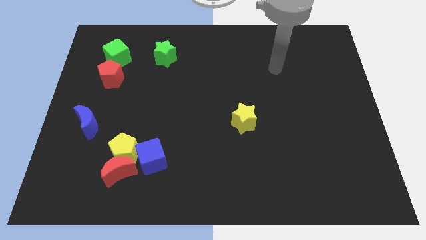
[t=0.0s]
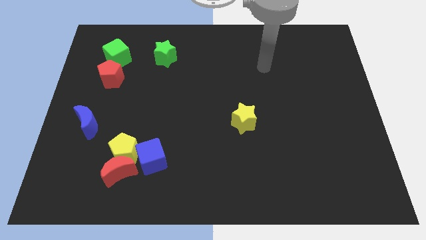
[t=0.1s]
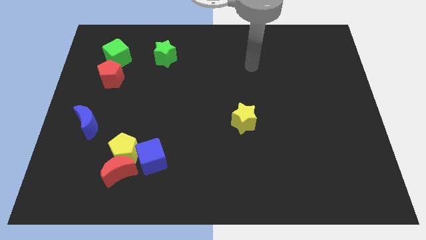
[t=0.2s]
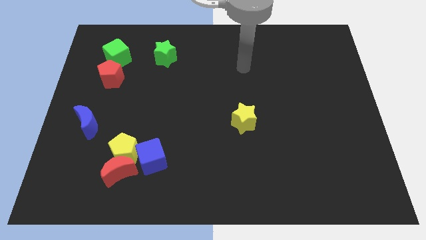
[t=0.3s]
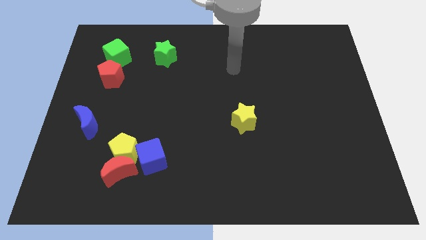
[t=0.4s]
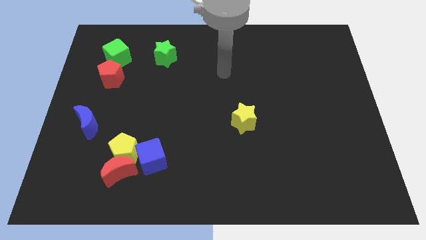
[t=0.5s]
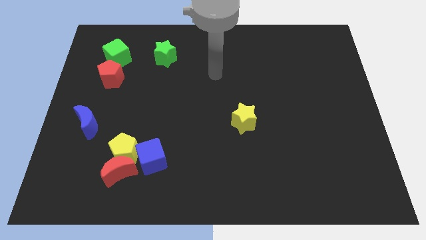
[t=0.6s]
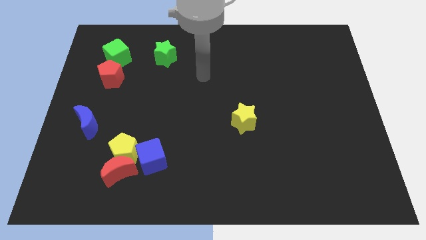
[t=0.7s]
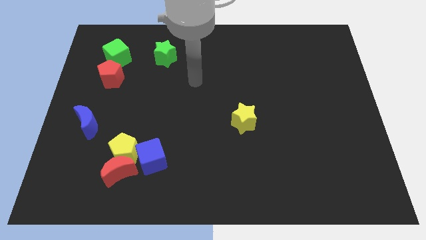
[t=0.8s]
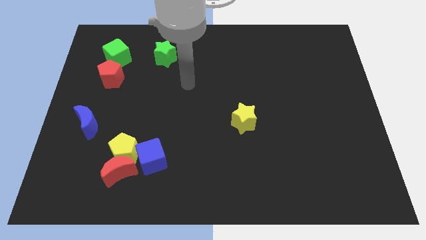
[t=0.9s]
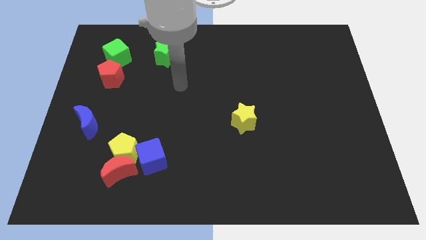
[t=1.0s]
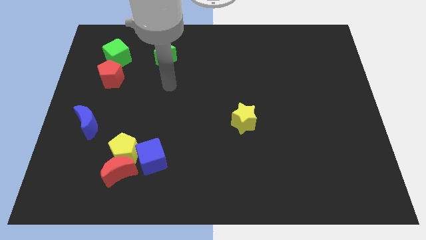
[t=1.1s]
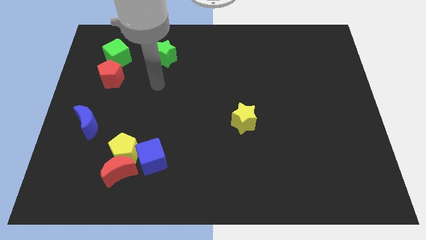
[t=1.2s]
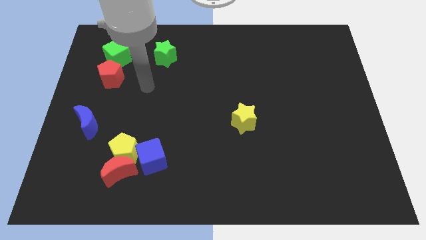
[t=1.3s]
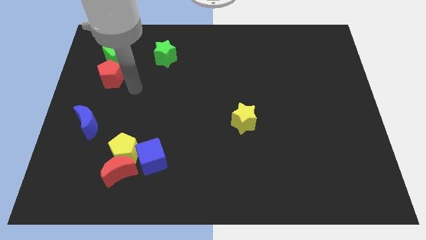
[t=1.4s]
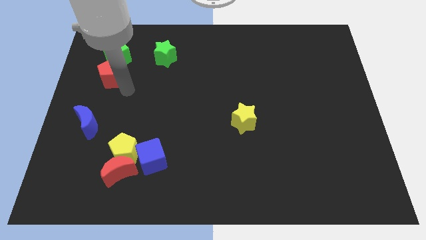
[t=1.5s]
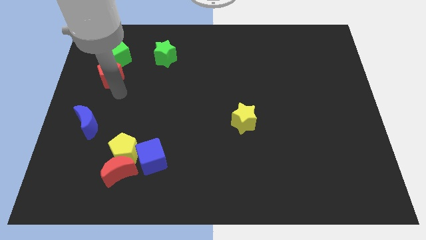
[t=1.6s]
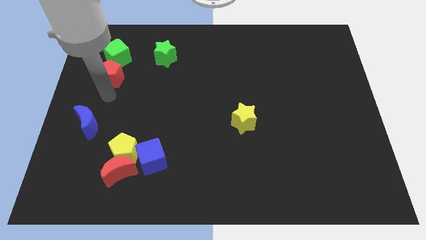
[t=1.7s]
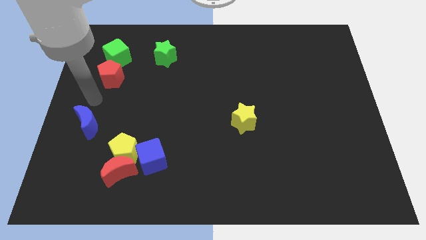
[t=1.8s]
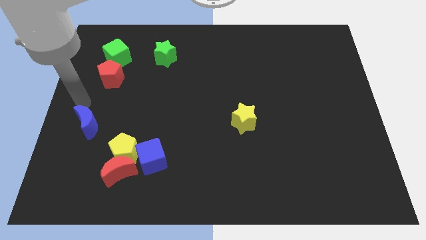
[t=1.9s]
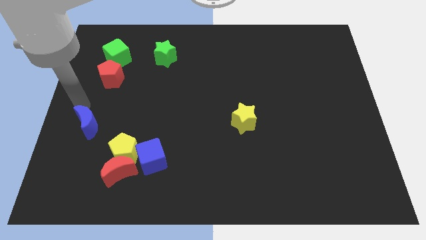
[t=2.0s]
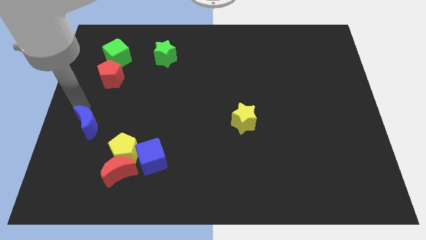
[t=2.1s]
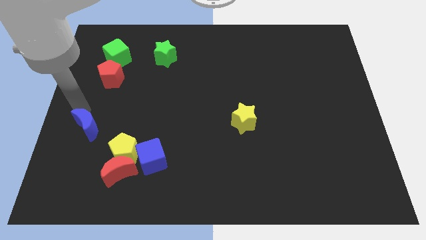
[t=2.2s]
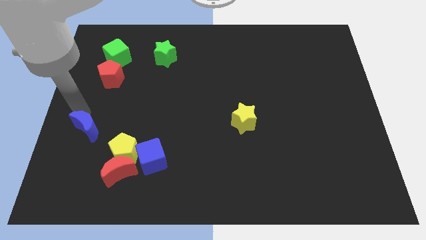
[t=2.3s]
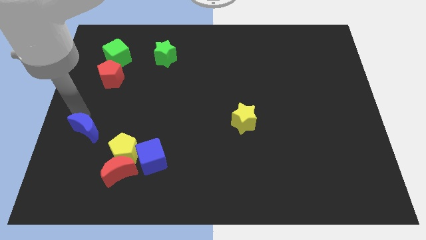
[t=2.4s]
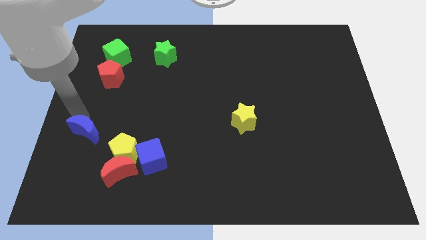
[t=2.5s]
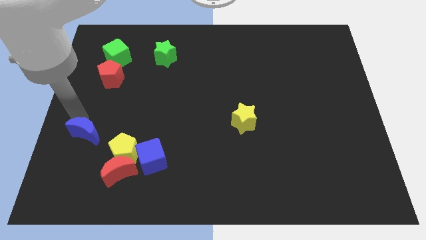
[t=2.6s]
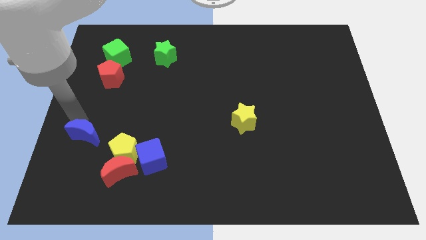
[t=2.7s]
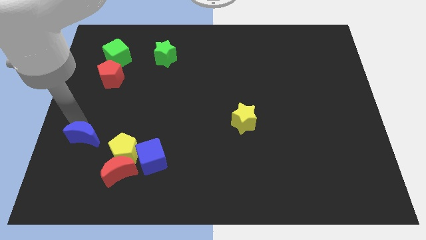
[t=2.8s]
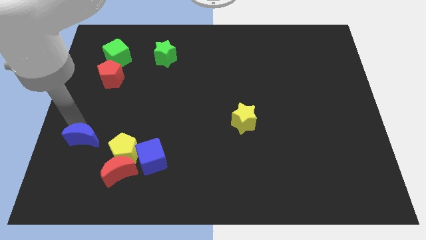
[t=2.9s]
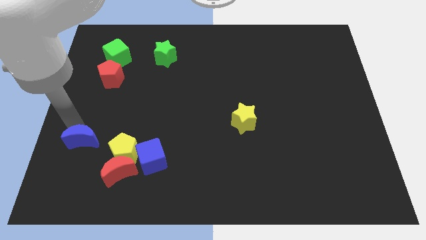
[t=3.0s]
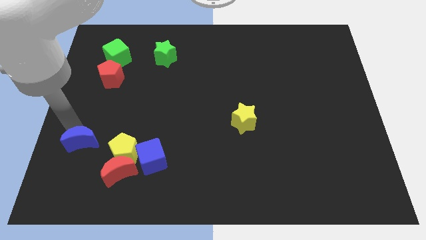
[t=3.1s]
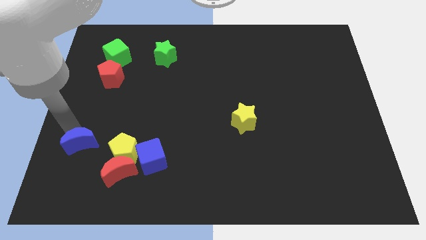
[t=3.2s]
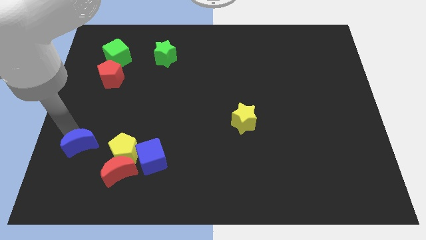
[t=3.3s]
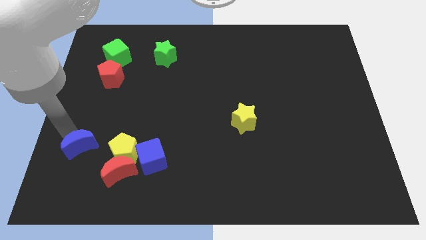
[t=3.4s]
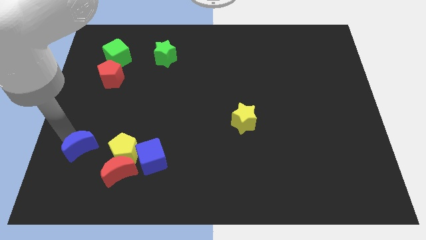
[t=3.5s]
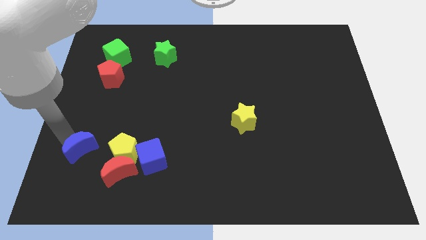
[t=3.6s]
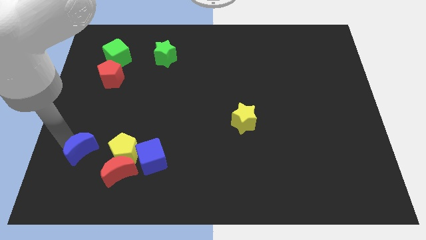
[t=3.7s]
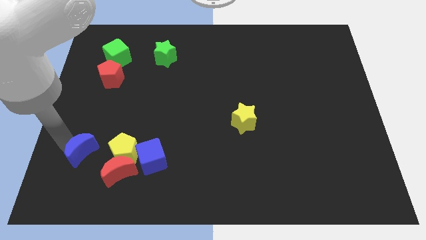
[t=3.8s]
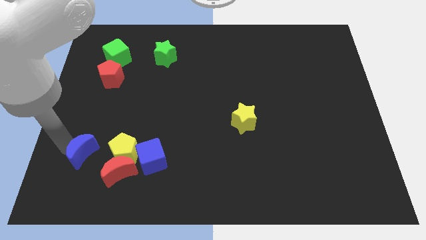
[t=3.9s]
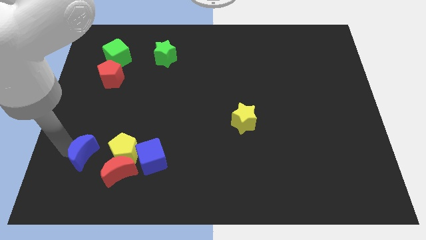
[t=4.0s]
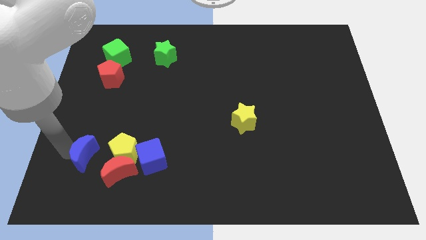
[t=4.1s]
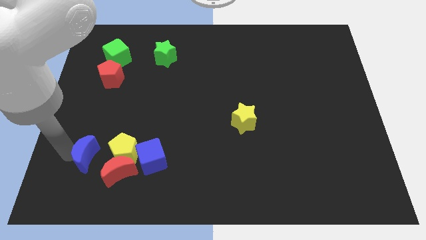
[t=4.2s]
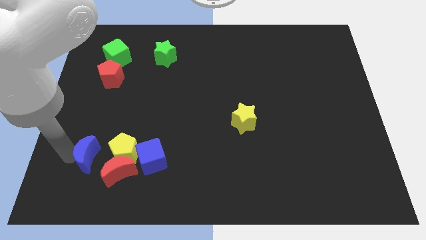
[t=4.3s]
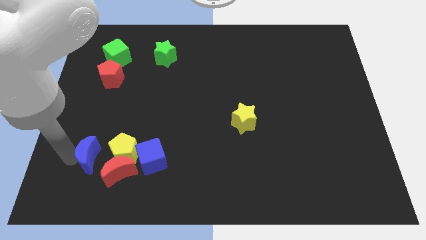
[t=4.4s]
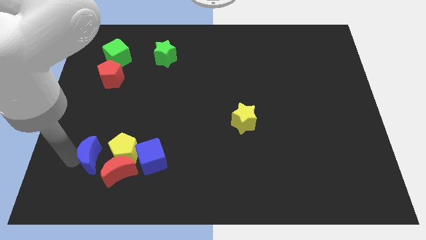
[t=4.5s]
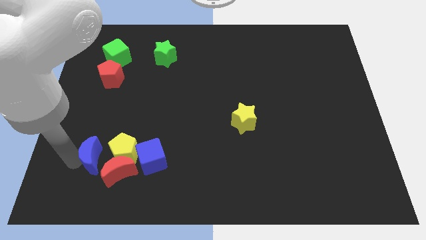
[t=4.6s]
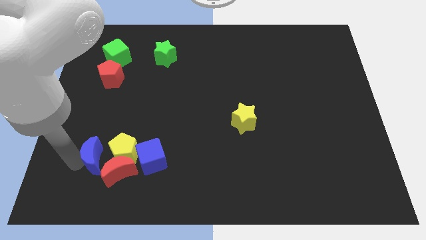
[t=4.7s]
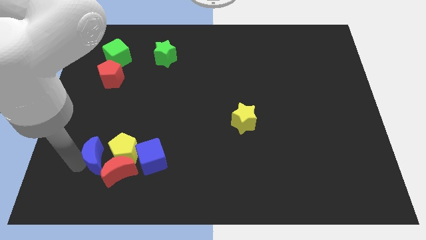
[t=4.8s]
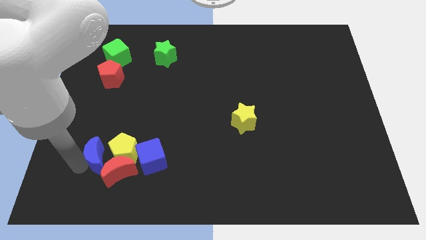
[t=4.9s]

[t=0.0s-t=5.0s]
put the blue moon towards the red moon

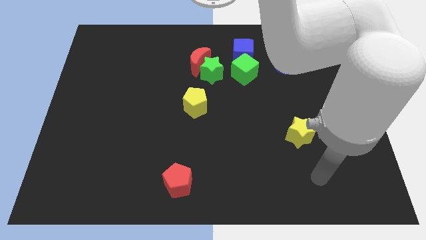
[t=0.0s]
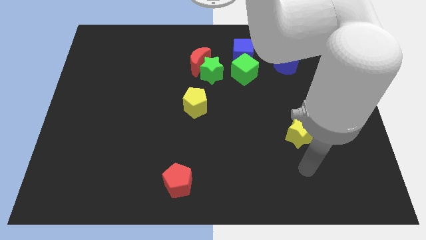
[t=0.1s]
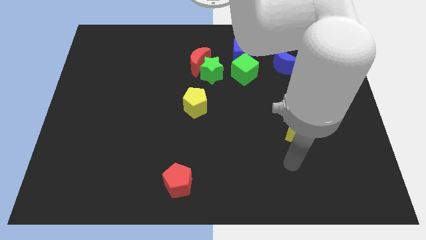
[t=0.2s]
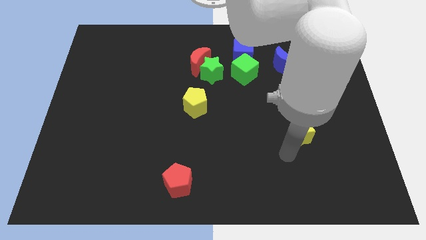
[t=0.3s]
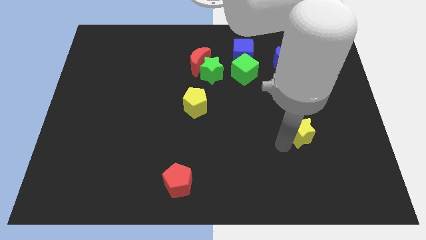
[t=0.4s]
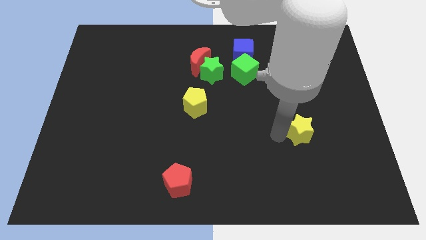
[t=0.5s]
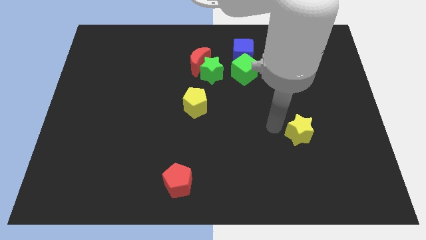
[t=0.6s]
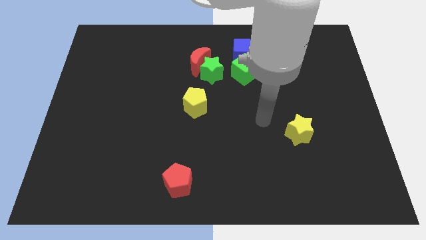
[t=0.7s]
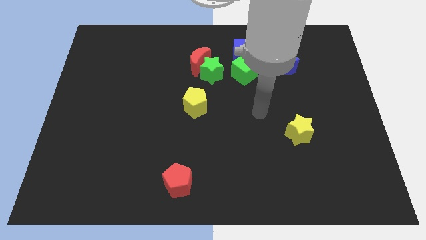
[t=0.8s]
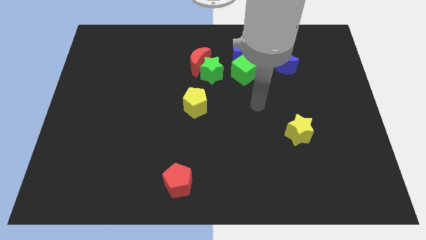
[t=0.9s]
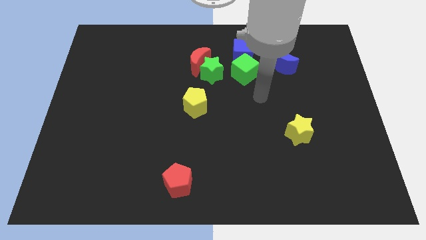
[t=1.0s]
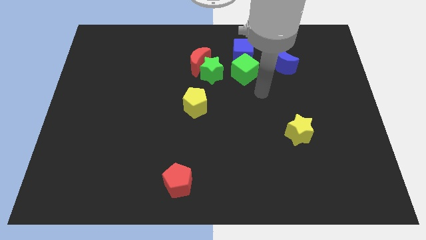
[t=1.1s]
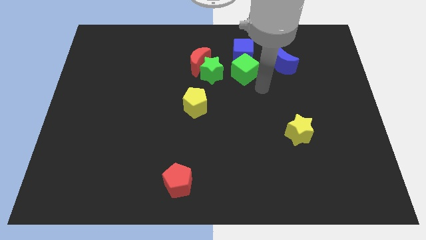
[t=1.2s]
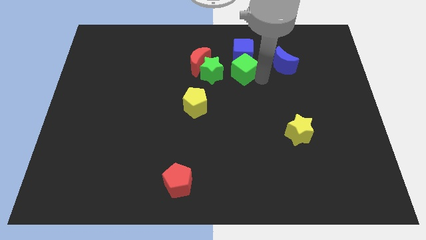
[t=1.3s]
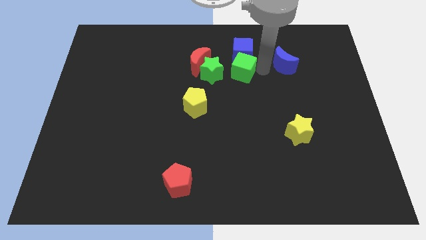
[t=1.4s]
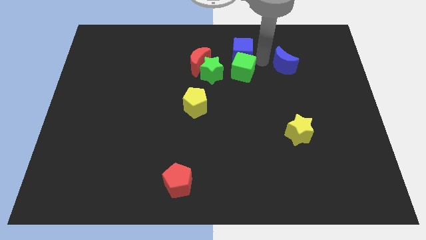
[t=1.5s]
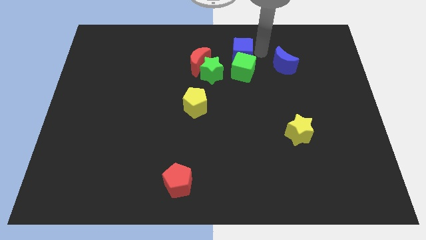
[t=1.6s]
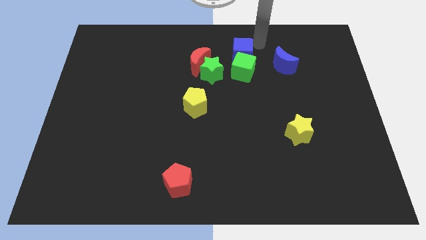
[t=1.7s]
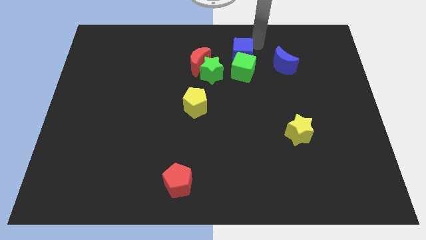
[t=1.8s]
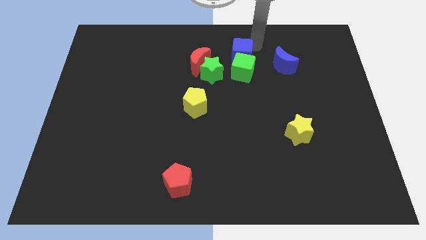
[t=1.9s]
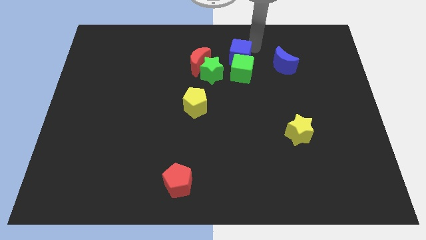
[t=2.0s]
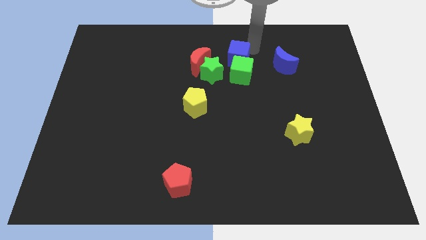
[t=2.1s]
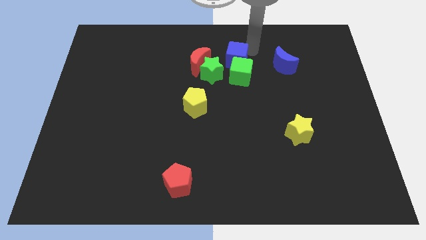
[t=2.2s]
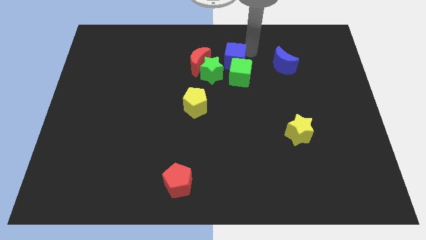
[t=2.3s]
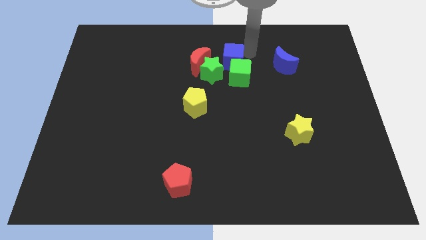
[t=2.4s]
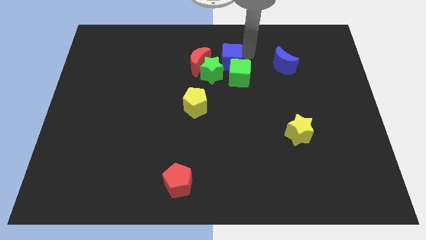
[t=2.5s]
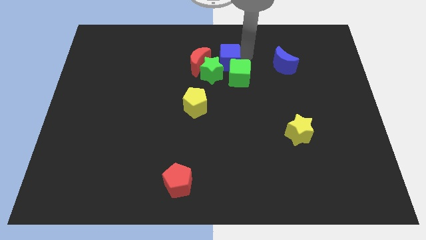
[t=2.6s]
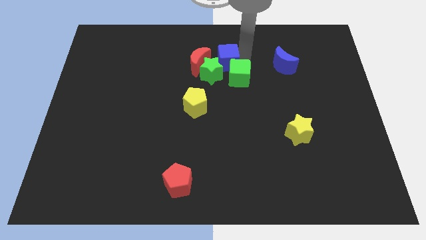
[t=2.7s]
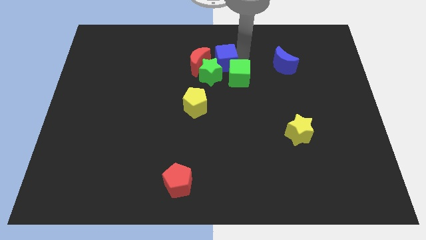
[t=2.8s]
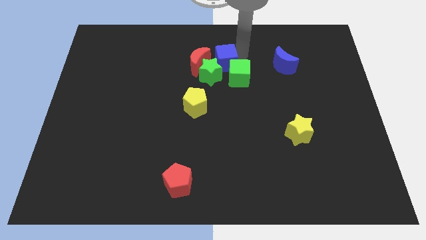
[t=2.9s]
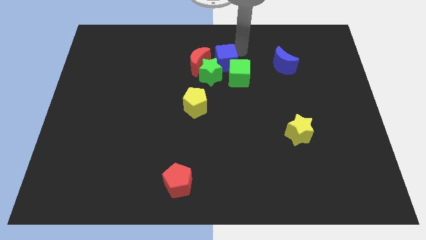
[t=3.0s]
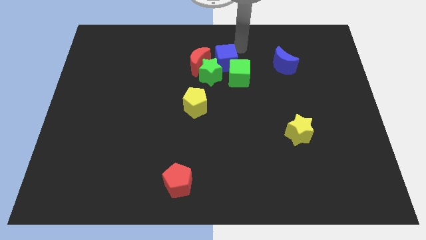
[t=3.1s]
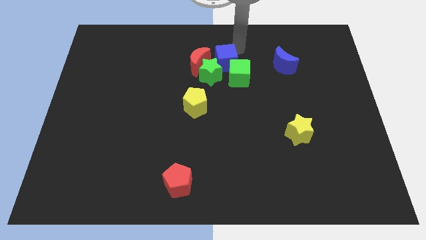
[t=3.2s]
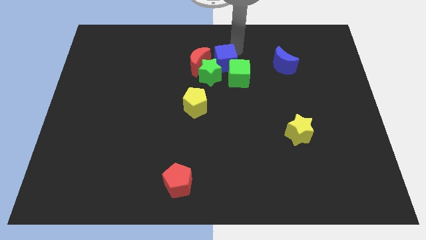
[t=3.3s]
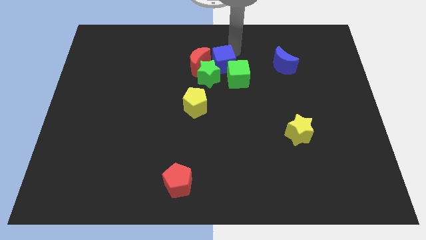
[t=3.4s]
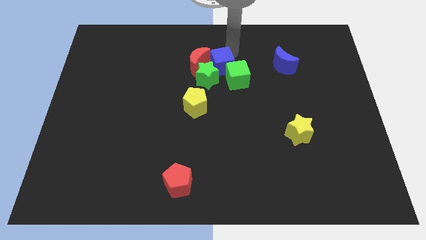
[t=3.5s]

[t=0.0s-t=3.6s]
move the blue cube close to the green star
